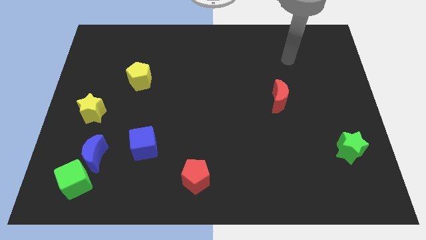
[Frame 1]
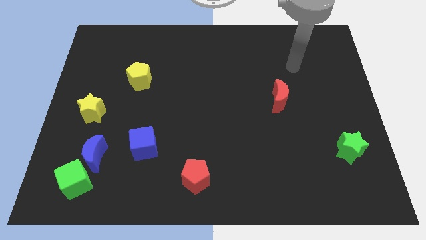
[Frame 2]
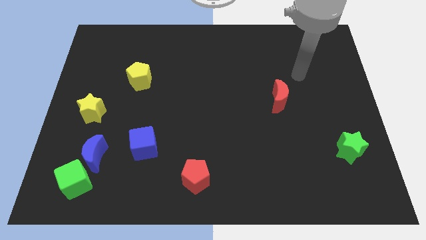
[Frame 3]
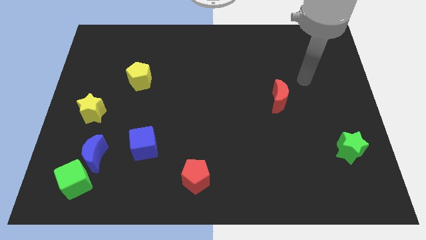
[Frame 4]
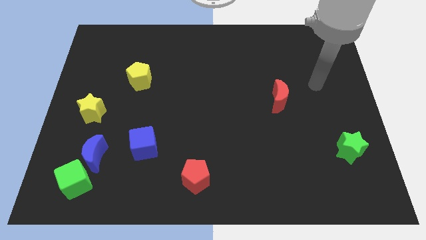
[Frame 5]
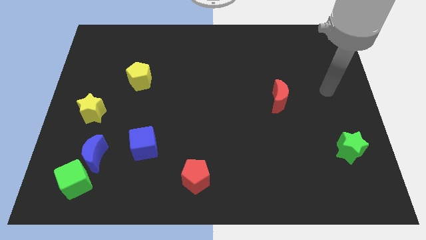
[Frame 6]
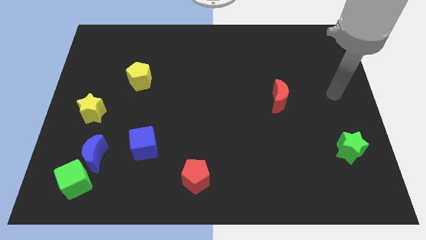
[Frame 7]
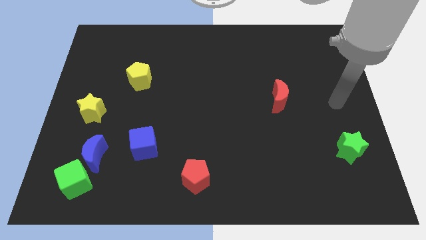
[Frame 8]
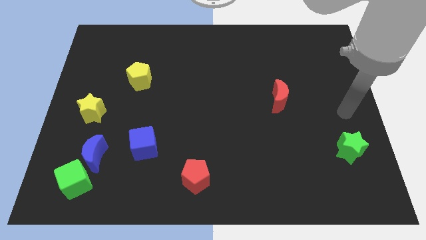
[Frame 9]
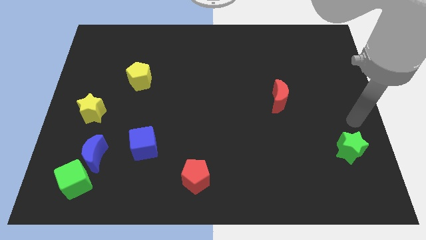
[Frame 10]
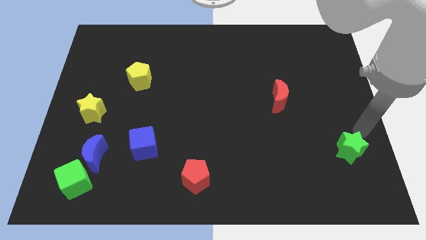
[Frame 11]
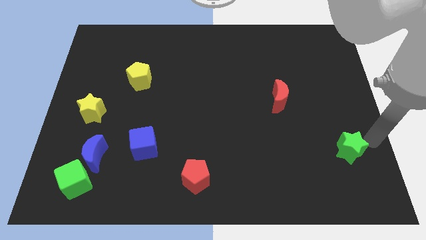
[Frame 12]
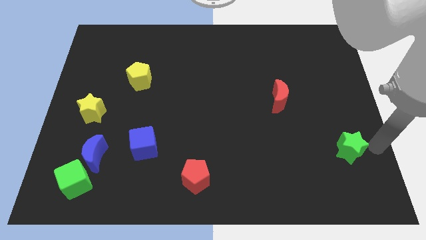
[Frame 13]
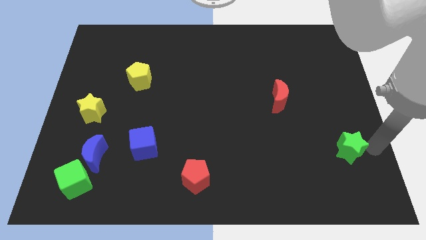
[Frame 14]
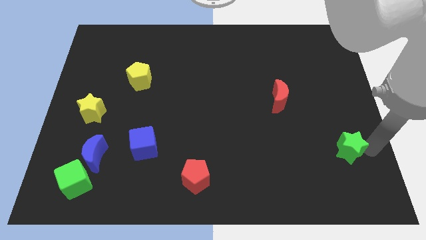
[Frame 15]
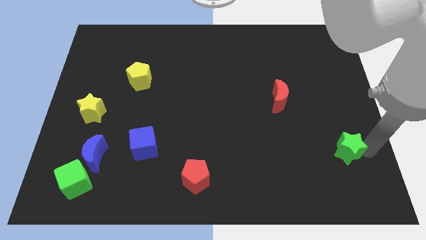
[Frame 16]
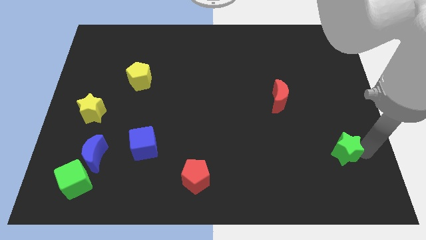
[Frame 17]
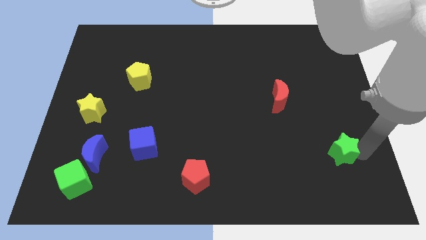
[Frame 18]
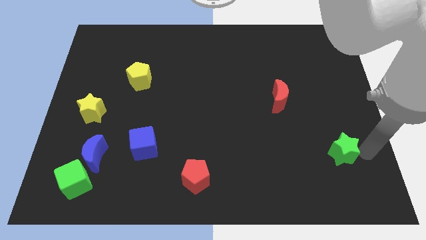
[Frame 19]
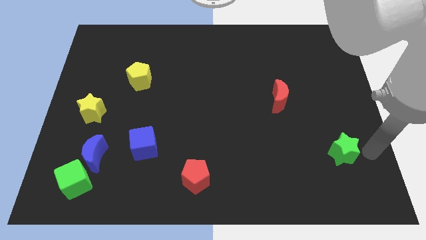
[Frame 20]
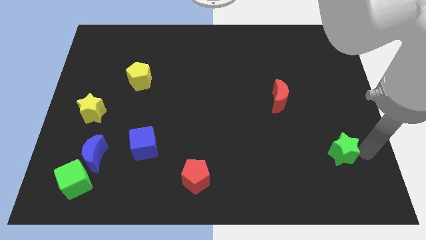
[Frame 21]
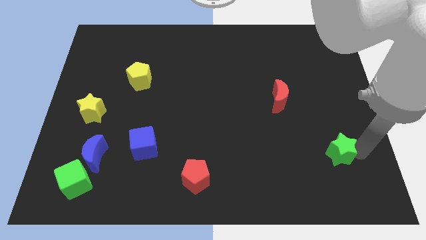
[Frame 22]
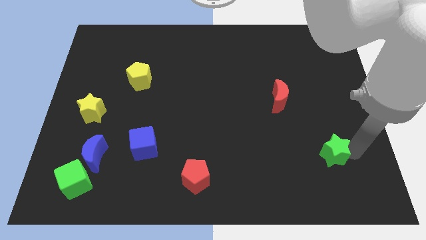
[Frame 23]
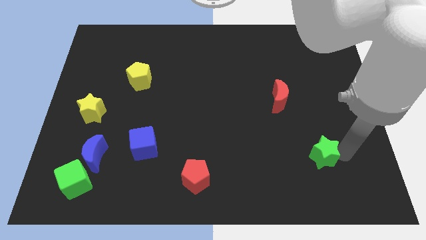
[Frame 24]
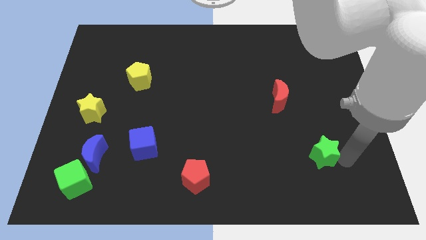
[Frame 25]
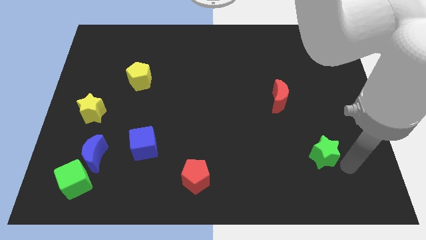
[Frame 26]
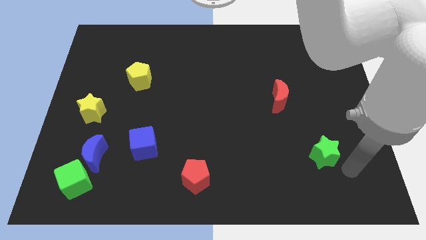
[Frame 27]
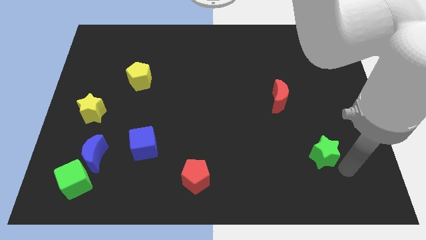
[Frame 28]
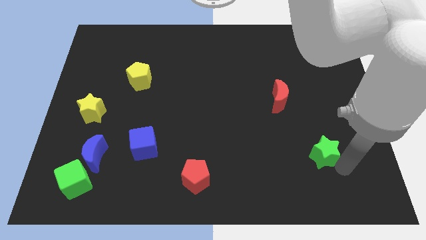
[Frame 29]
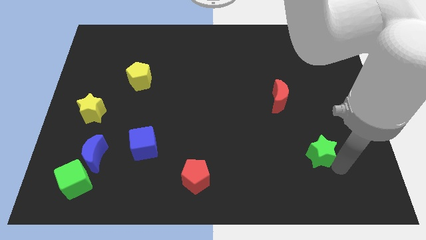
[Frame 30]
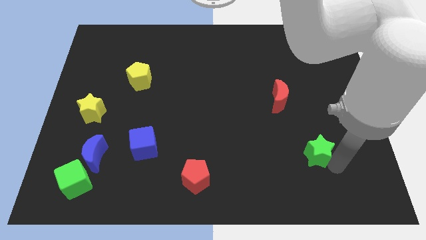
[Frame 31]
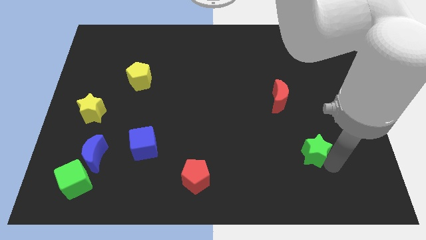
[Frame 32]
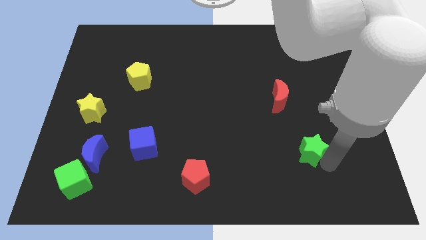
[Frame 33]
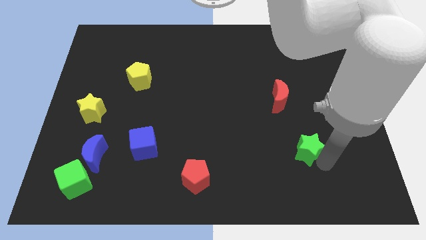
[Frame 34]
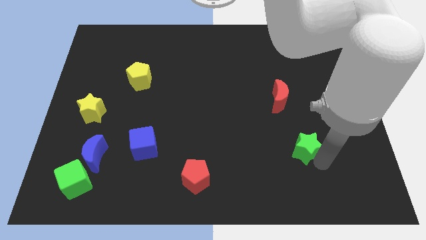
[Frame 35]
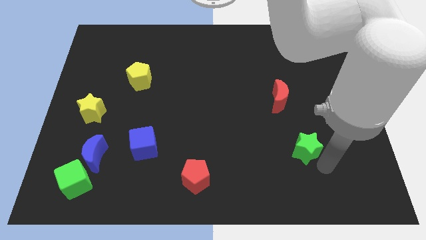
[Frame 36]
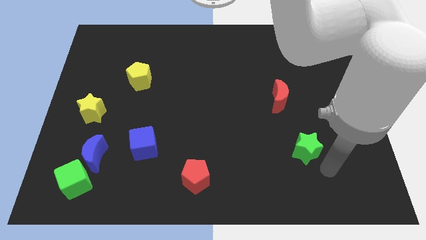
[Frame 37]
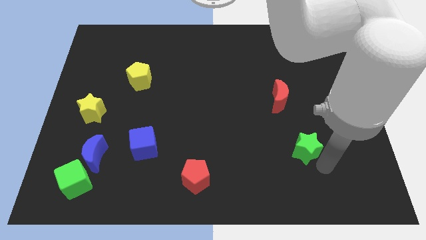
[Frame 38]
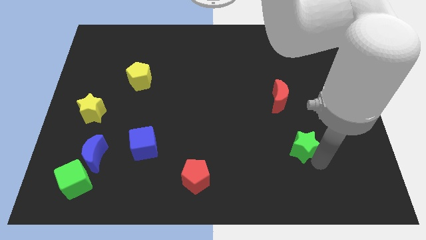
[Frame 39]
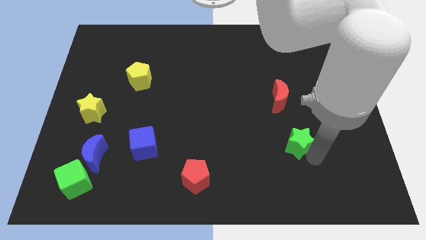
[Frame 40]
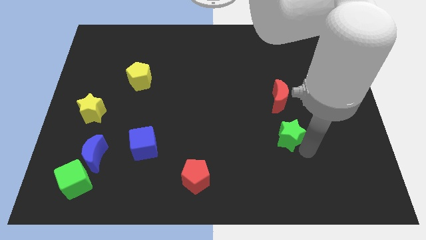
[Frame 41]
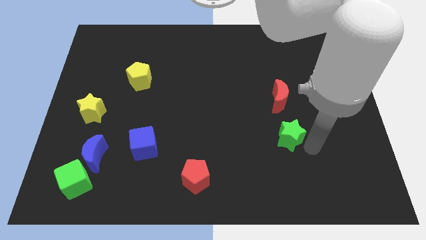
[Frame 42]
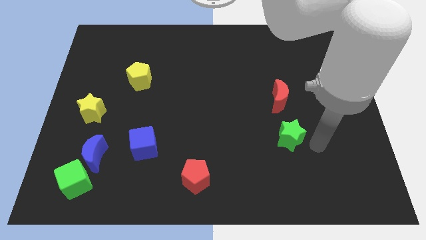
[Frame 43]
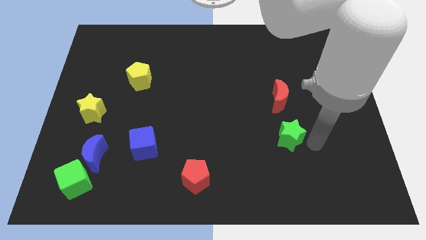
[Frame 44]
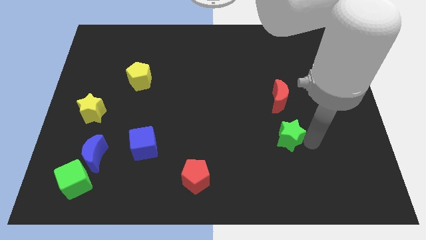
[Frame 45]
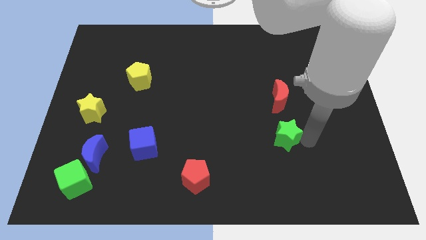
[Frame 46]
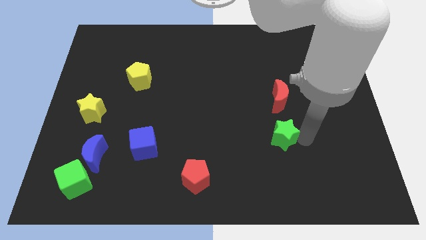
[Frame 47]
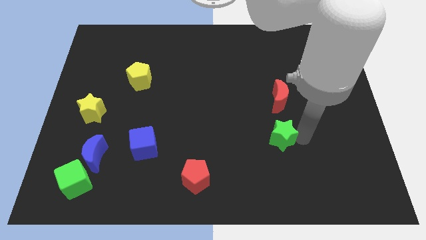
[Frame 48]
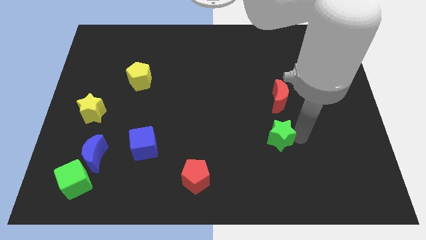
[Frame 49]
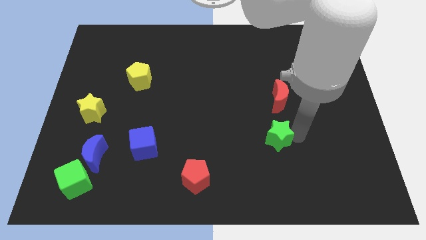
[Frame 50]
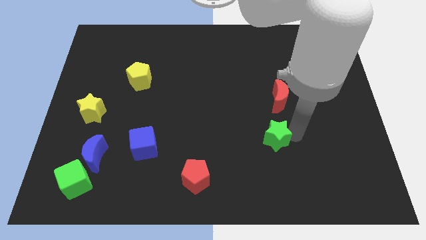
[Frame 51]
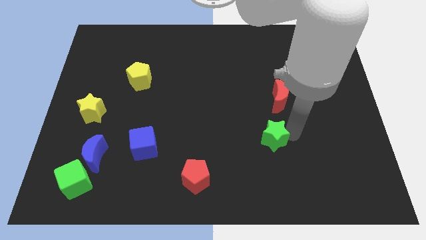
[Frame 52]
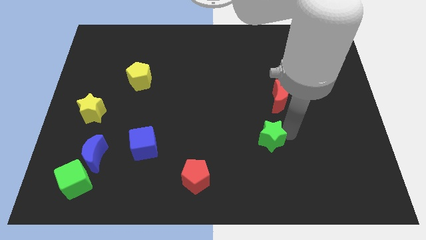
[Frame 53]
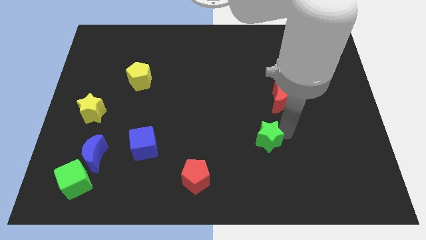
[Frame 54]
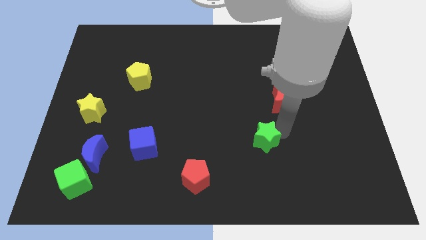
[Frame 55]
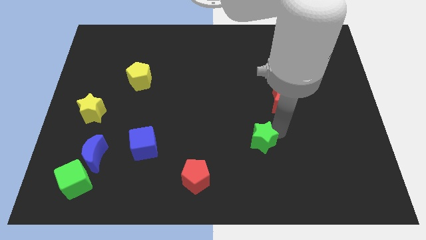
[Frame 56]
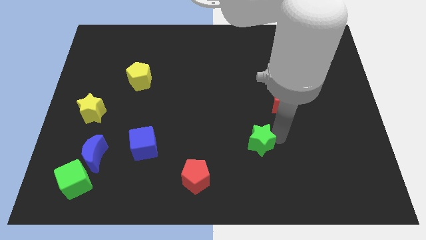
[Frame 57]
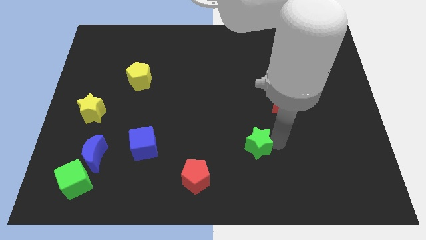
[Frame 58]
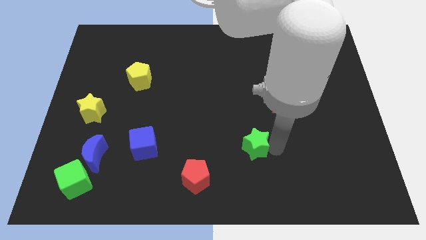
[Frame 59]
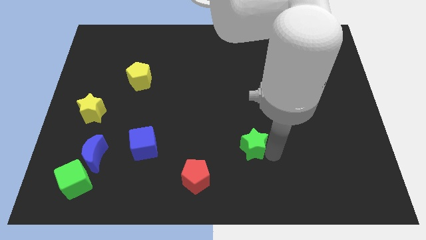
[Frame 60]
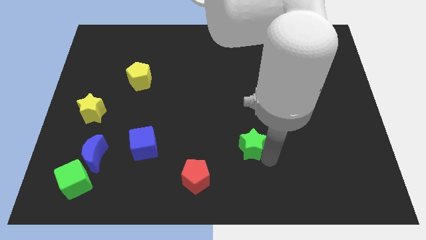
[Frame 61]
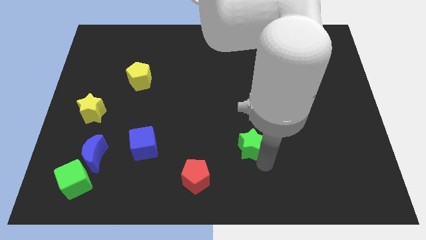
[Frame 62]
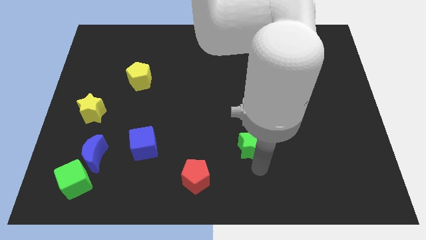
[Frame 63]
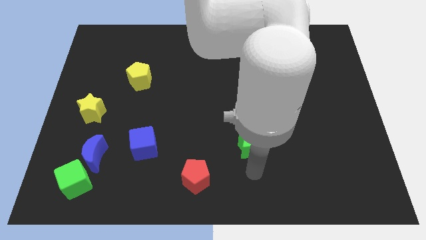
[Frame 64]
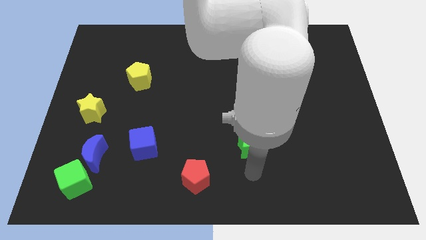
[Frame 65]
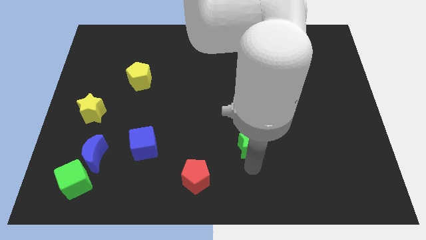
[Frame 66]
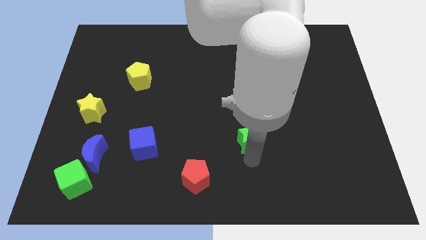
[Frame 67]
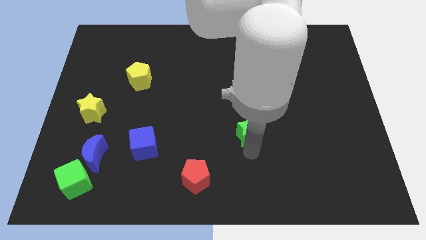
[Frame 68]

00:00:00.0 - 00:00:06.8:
move the green star to the center
